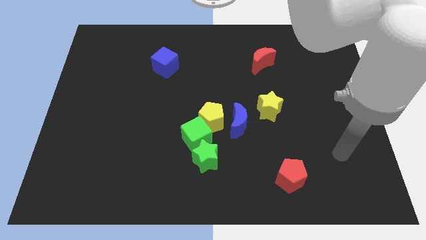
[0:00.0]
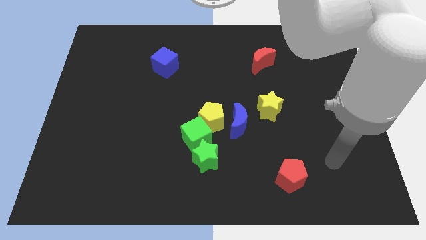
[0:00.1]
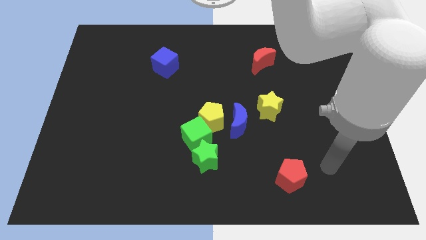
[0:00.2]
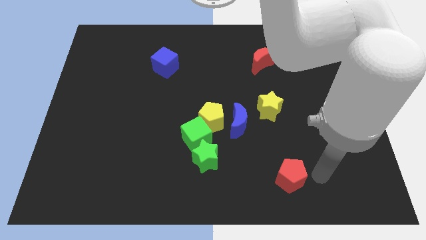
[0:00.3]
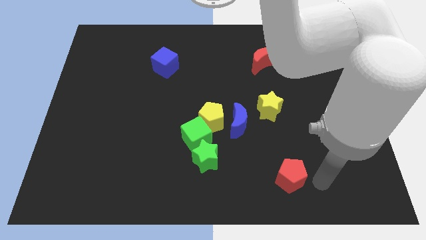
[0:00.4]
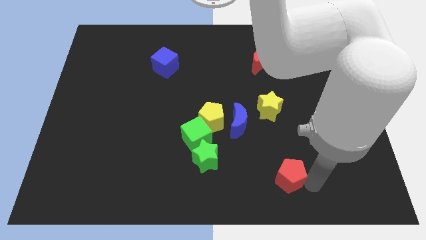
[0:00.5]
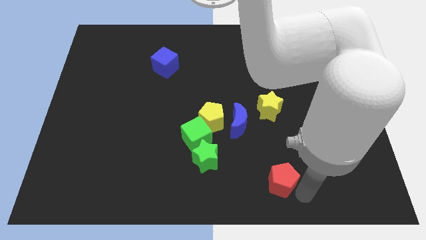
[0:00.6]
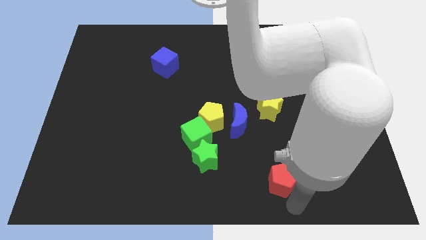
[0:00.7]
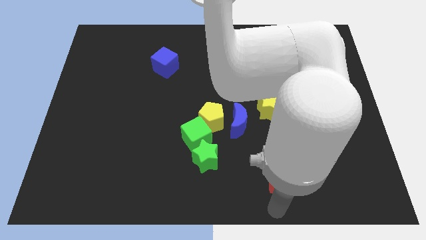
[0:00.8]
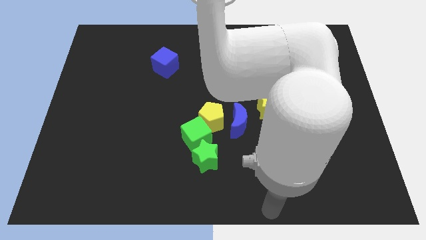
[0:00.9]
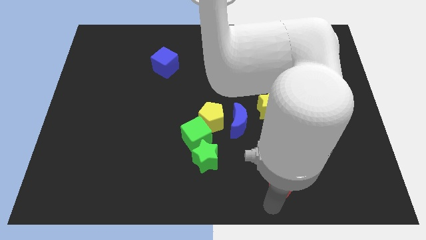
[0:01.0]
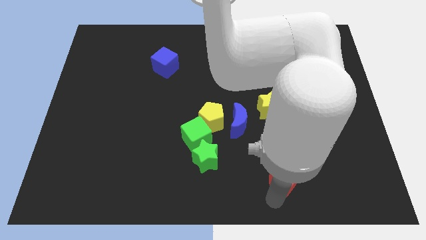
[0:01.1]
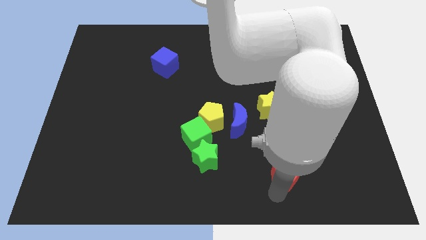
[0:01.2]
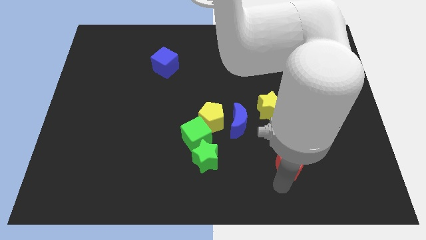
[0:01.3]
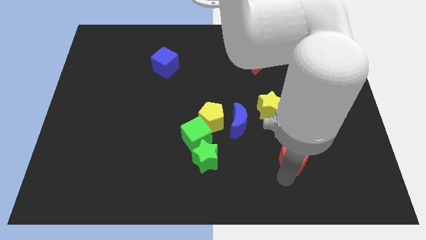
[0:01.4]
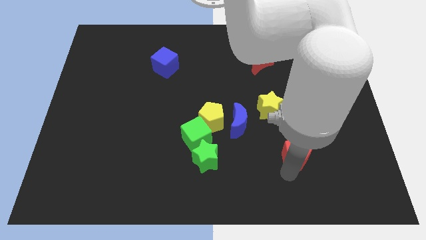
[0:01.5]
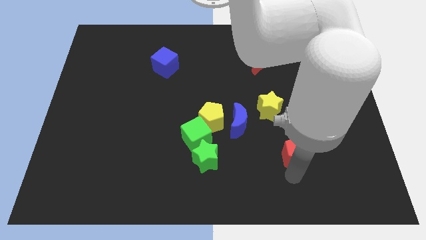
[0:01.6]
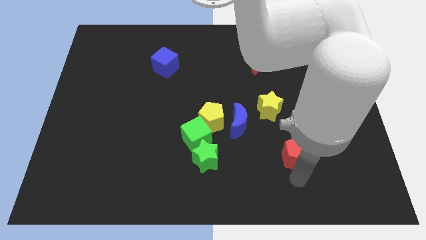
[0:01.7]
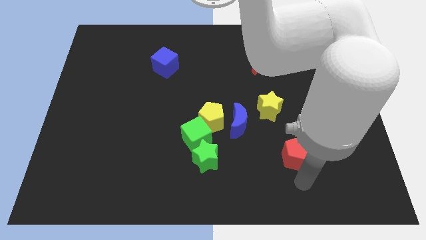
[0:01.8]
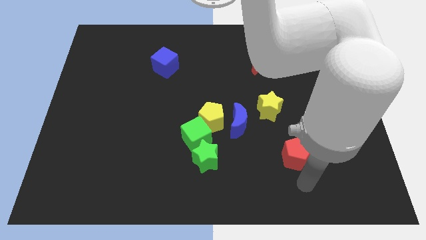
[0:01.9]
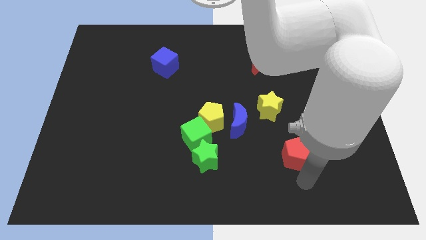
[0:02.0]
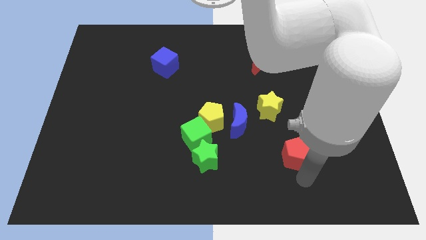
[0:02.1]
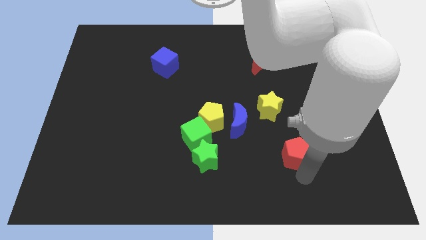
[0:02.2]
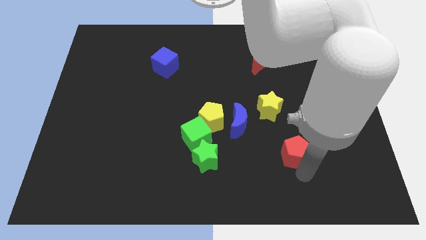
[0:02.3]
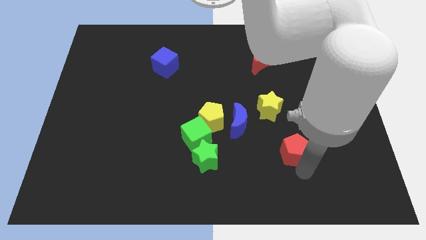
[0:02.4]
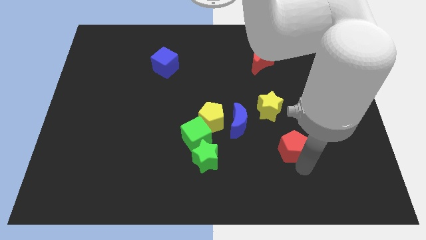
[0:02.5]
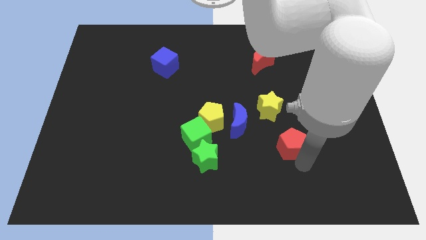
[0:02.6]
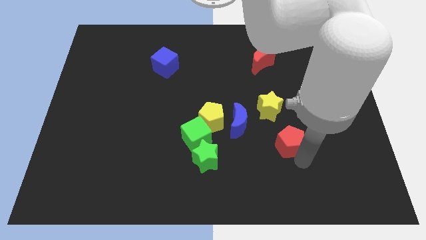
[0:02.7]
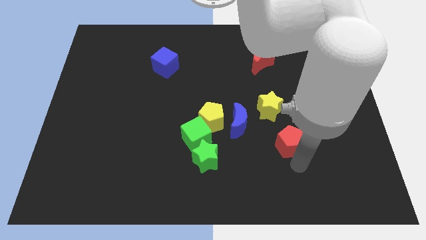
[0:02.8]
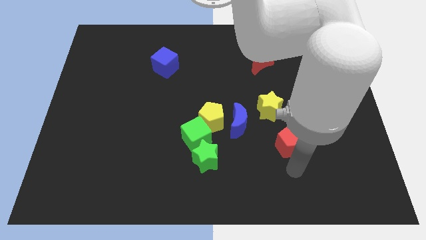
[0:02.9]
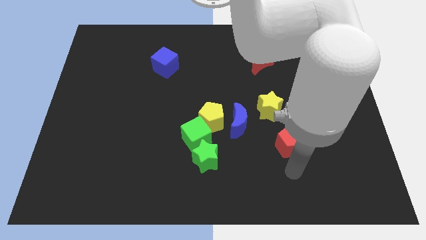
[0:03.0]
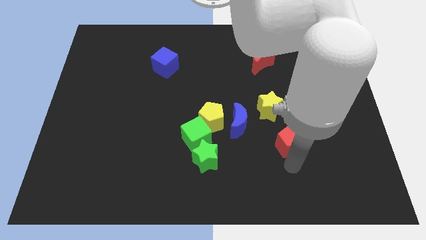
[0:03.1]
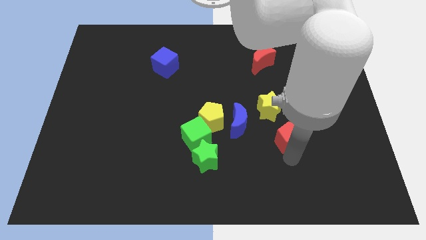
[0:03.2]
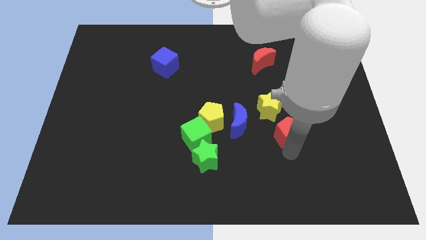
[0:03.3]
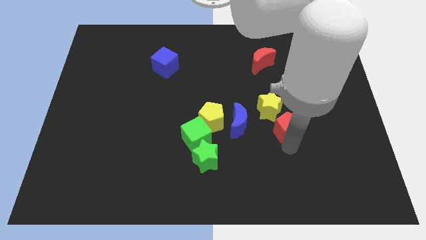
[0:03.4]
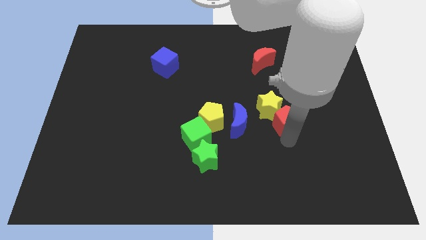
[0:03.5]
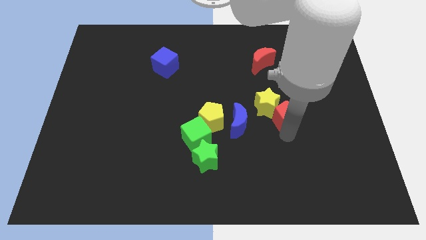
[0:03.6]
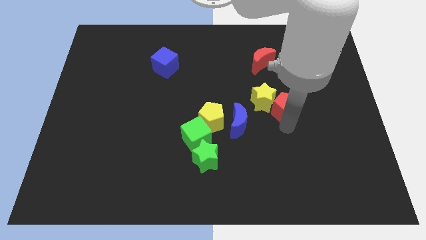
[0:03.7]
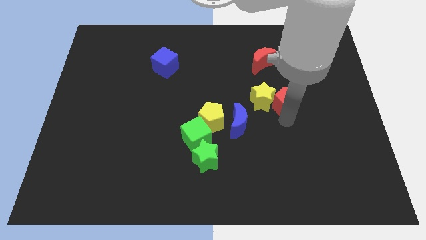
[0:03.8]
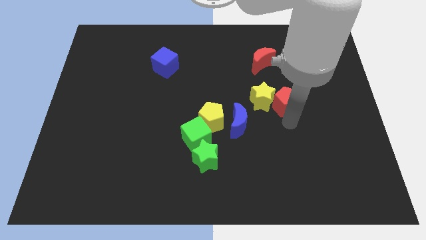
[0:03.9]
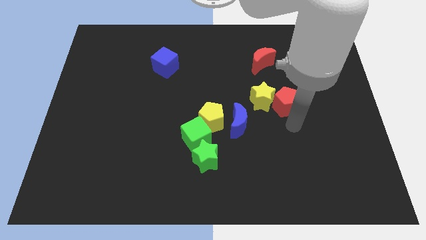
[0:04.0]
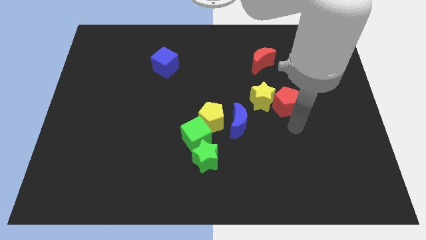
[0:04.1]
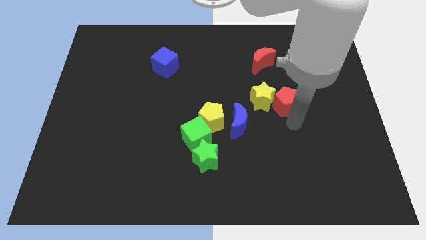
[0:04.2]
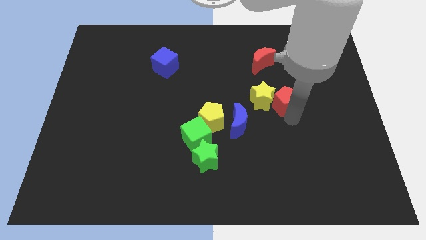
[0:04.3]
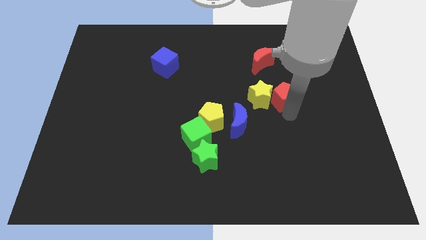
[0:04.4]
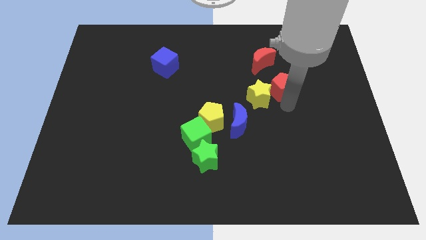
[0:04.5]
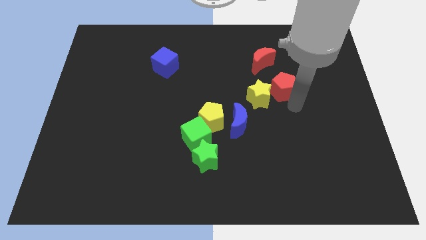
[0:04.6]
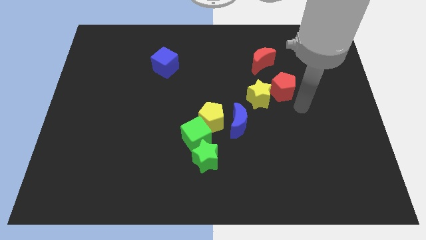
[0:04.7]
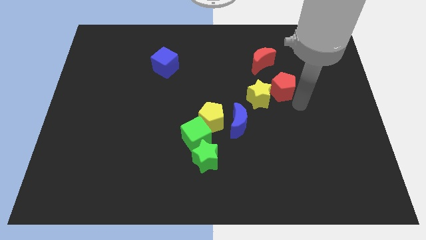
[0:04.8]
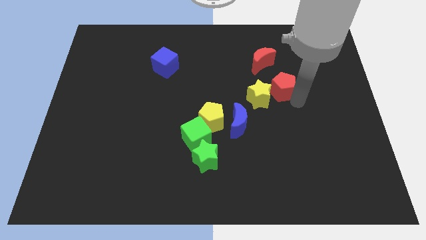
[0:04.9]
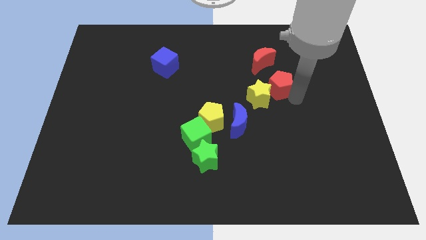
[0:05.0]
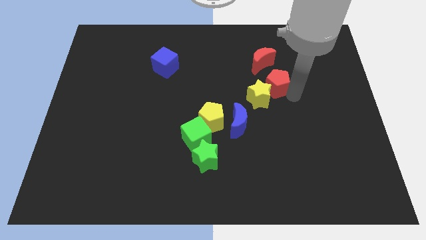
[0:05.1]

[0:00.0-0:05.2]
move the red pentagon above the yellow star

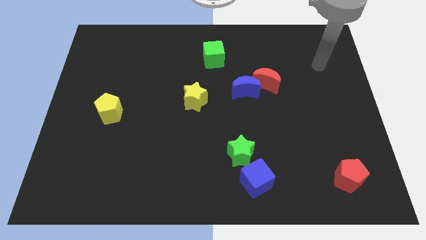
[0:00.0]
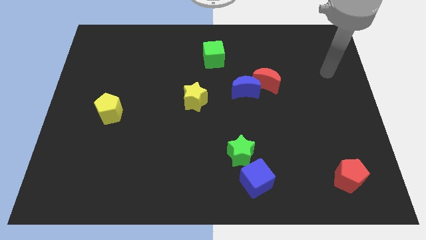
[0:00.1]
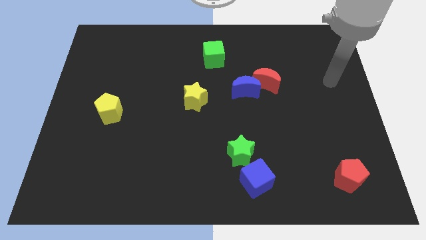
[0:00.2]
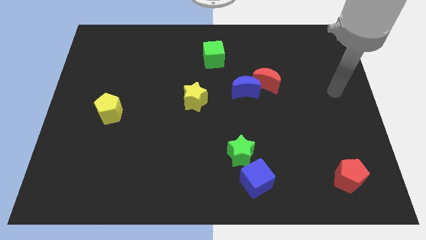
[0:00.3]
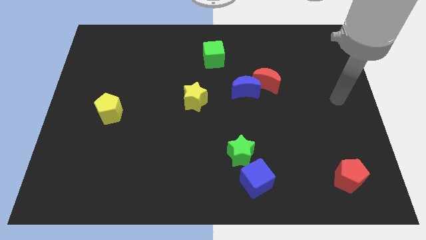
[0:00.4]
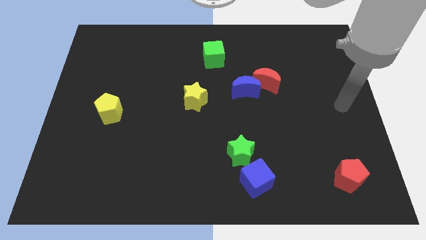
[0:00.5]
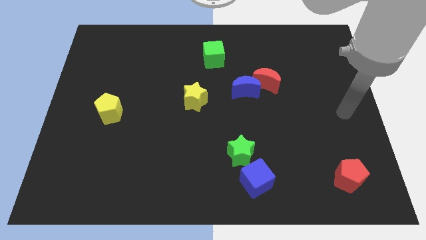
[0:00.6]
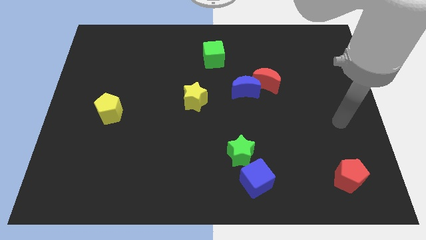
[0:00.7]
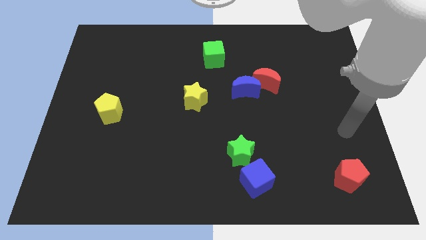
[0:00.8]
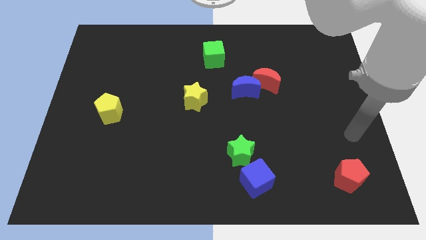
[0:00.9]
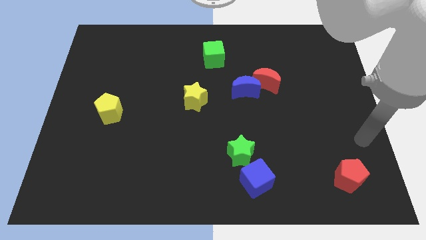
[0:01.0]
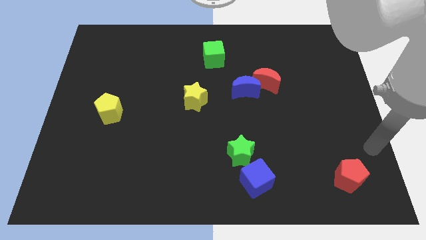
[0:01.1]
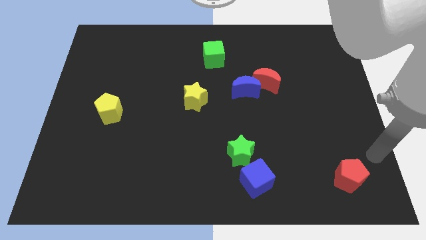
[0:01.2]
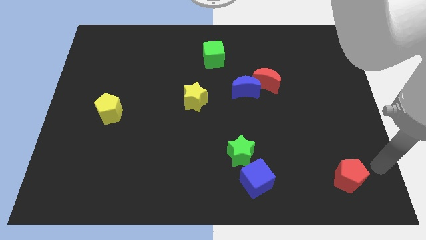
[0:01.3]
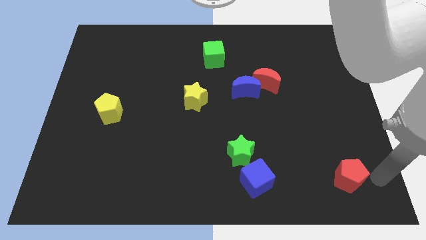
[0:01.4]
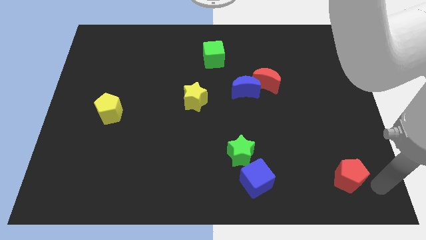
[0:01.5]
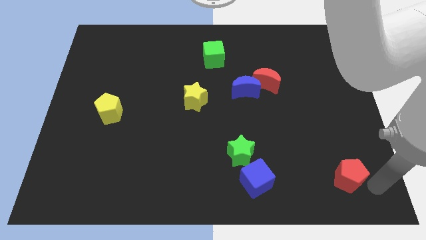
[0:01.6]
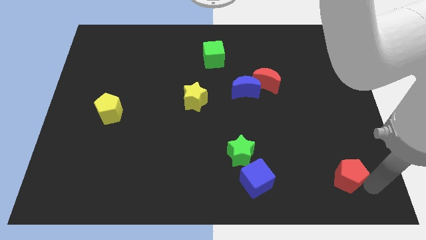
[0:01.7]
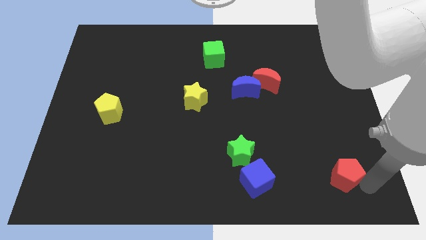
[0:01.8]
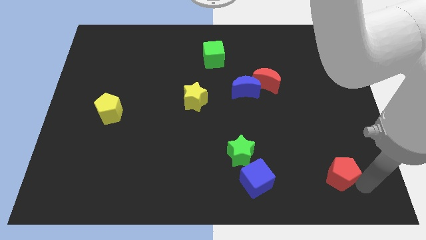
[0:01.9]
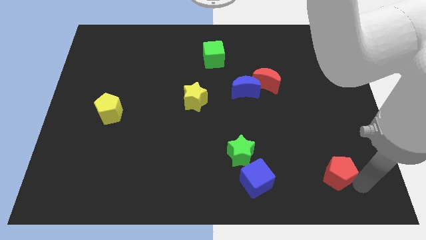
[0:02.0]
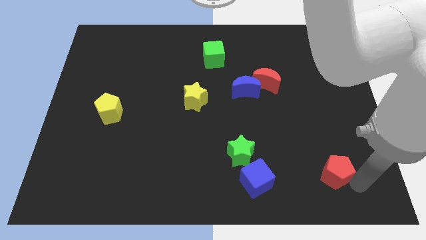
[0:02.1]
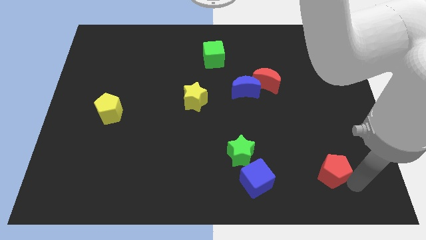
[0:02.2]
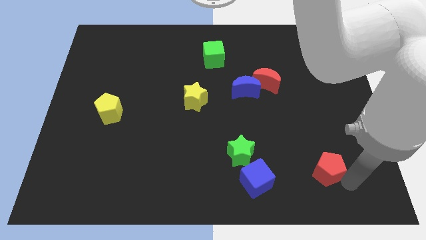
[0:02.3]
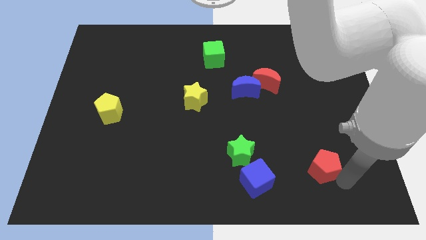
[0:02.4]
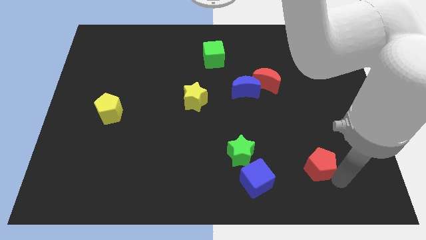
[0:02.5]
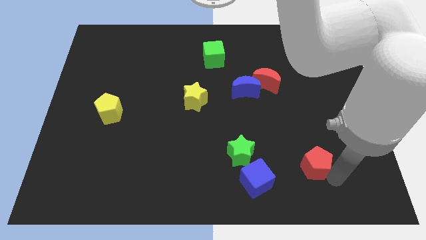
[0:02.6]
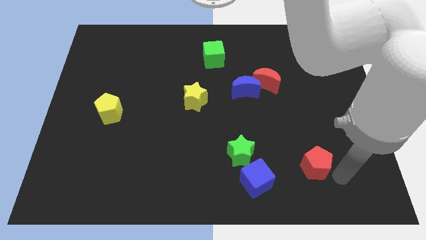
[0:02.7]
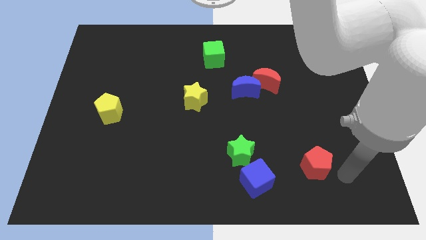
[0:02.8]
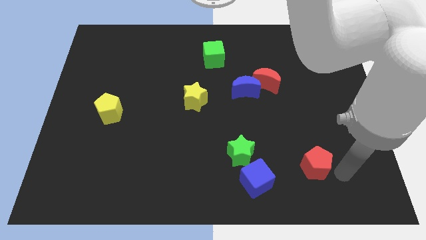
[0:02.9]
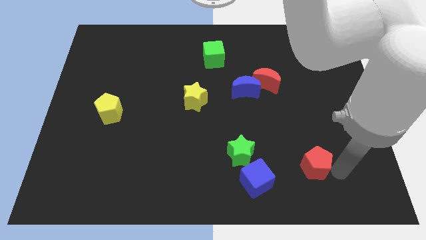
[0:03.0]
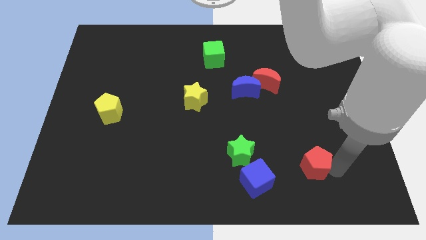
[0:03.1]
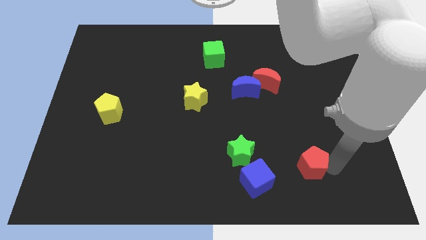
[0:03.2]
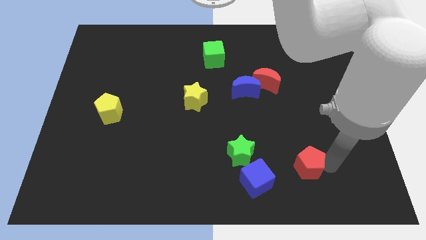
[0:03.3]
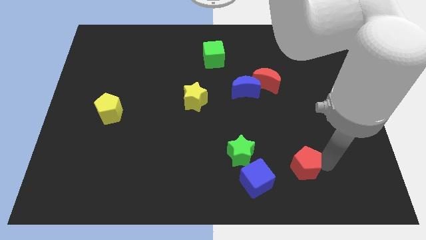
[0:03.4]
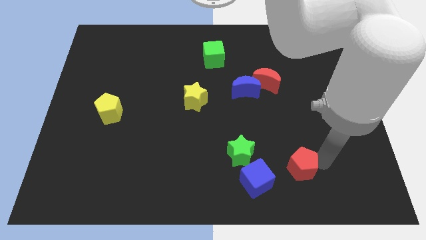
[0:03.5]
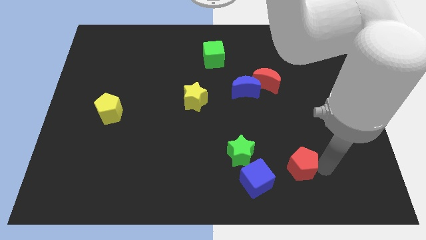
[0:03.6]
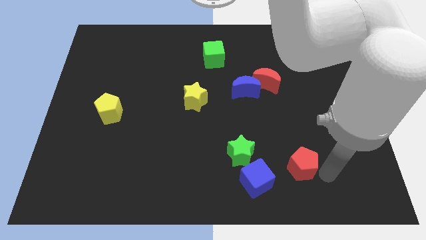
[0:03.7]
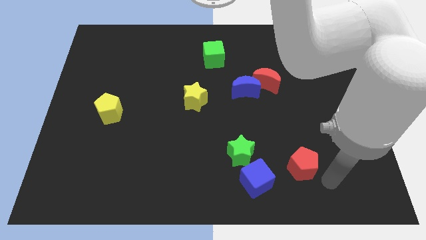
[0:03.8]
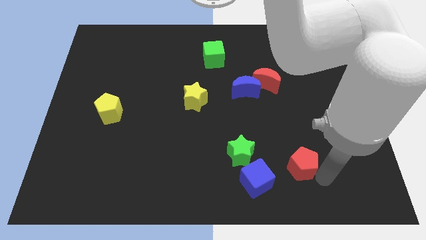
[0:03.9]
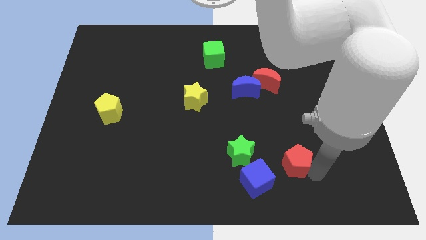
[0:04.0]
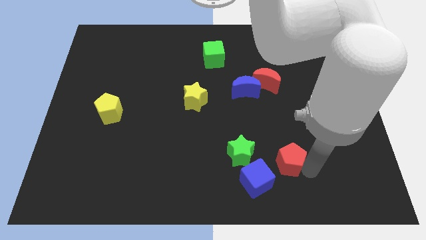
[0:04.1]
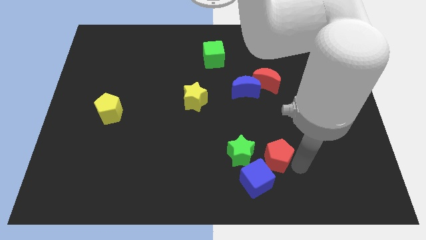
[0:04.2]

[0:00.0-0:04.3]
put the red pentagon to the top side of the blue cube
